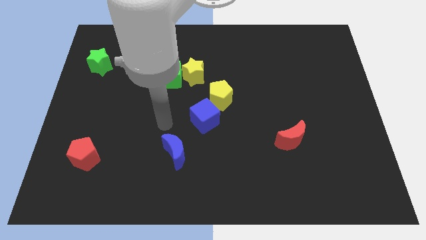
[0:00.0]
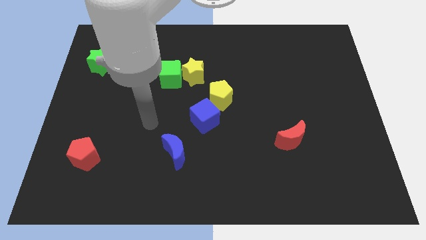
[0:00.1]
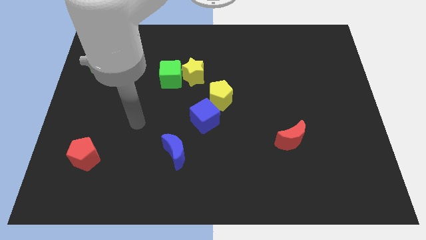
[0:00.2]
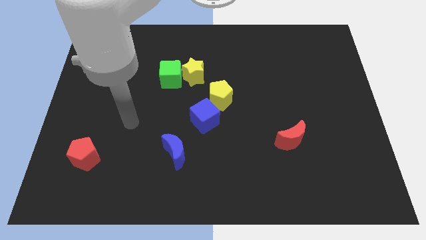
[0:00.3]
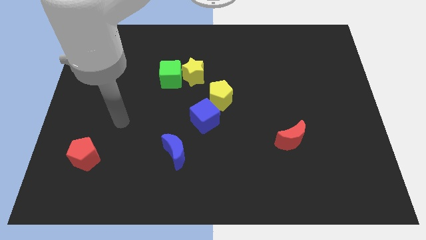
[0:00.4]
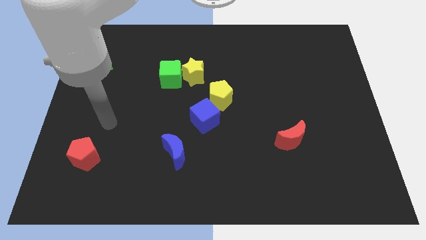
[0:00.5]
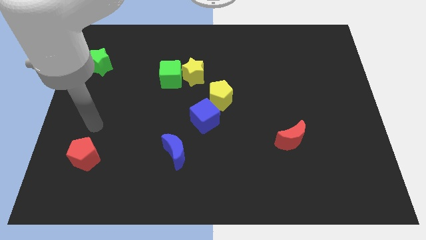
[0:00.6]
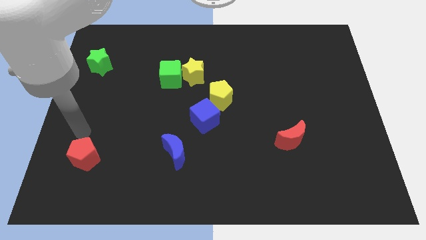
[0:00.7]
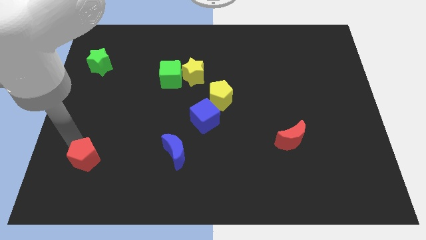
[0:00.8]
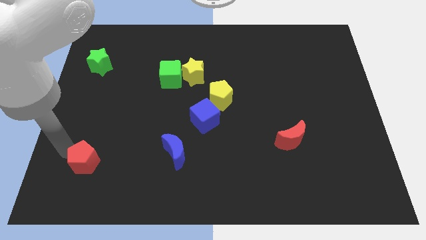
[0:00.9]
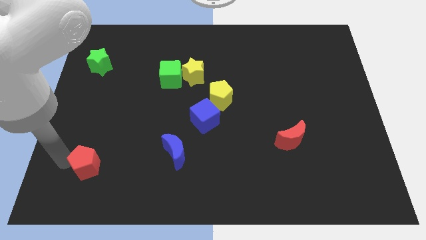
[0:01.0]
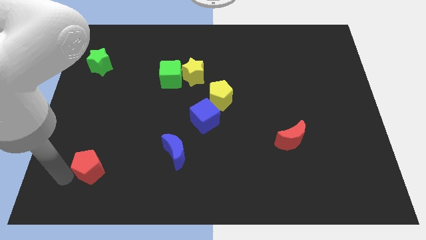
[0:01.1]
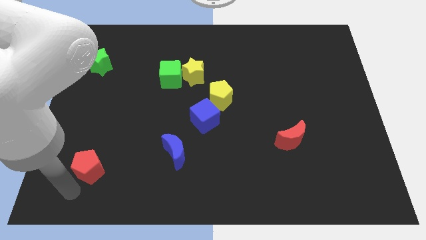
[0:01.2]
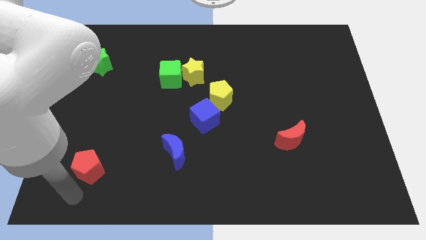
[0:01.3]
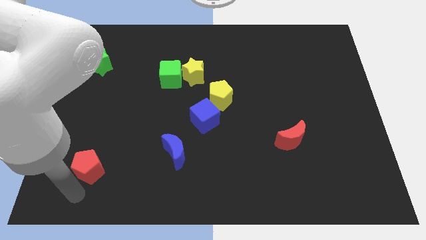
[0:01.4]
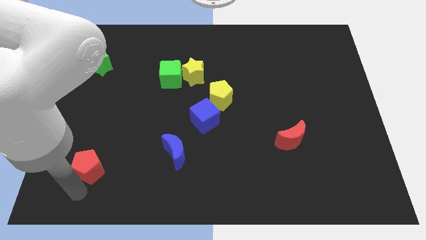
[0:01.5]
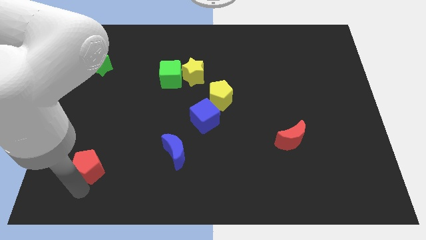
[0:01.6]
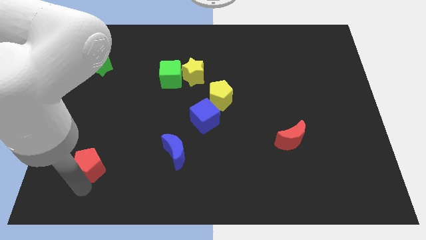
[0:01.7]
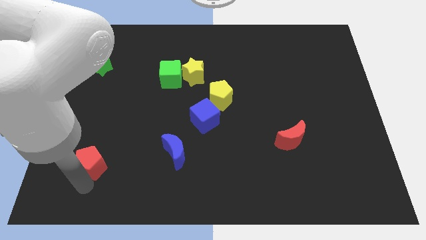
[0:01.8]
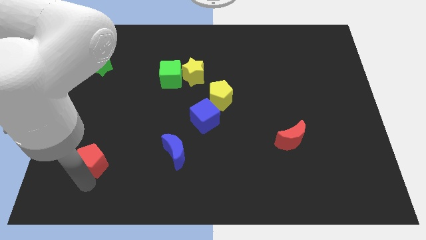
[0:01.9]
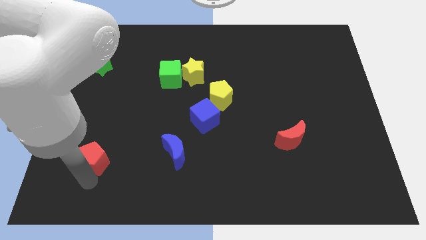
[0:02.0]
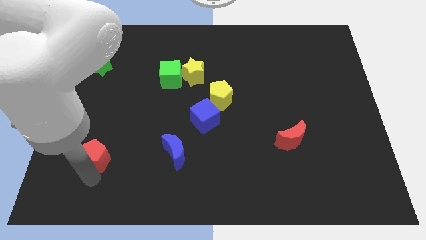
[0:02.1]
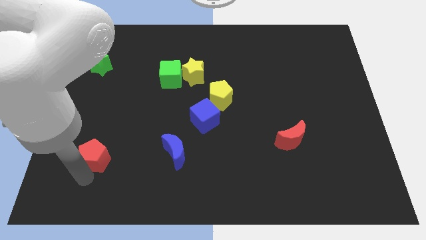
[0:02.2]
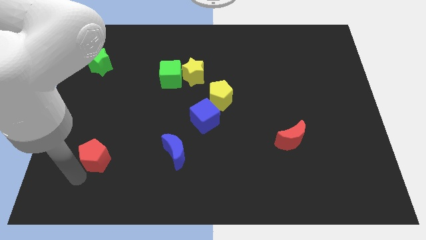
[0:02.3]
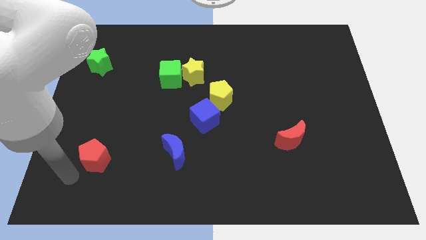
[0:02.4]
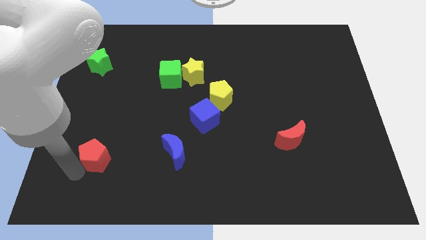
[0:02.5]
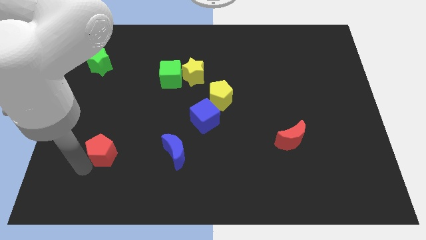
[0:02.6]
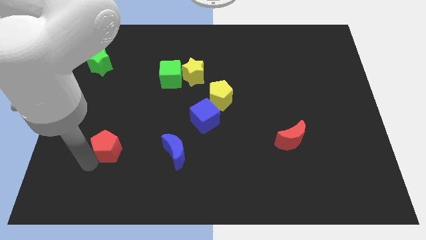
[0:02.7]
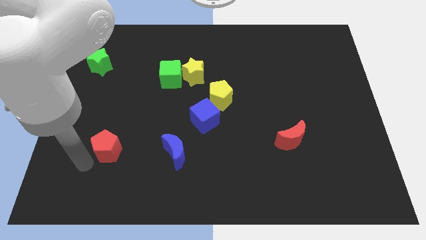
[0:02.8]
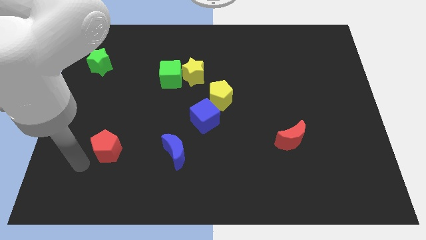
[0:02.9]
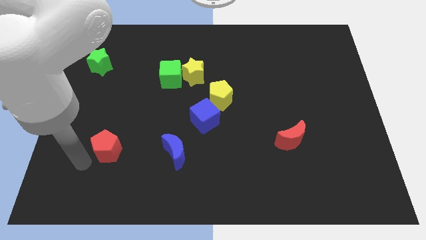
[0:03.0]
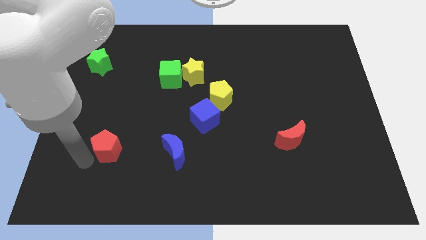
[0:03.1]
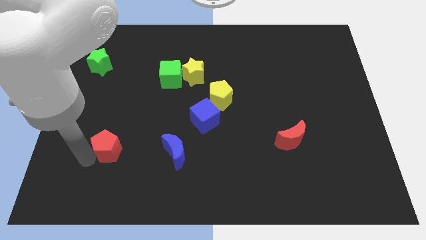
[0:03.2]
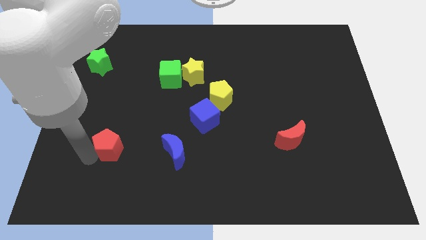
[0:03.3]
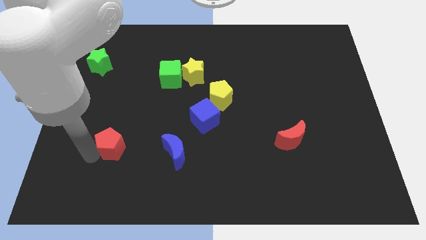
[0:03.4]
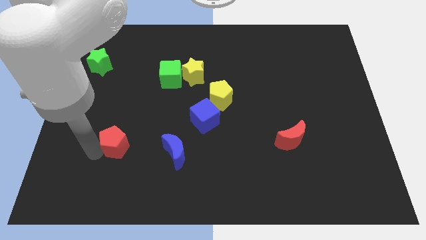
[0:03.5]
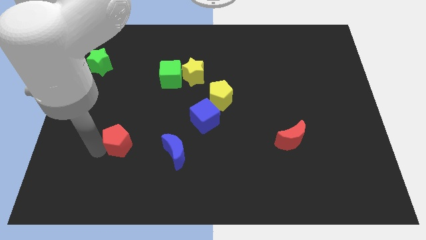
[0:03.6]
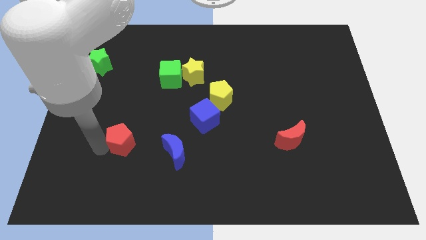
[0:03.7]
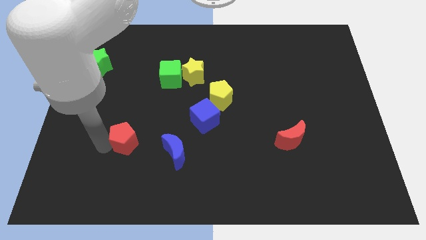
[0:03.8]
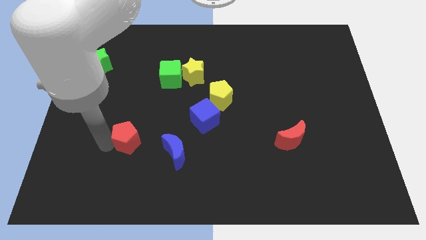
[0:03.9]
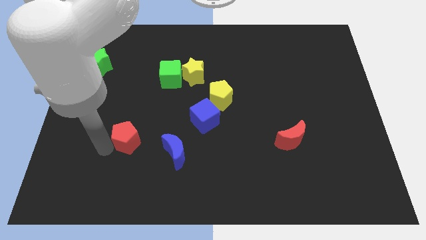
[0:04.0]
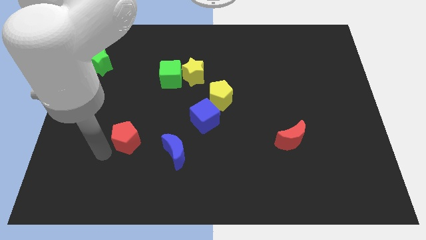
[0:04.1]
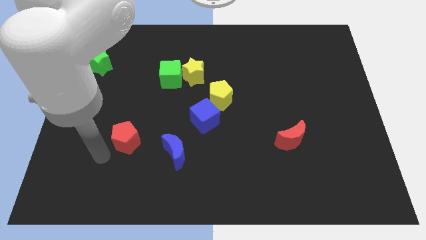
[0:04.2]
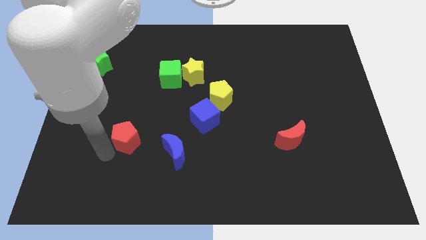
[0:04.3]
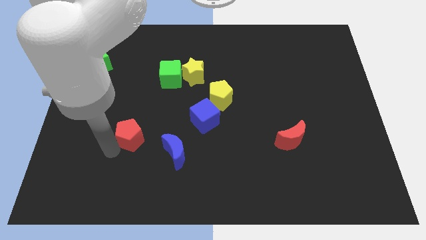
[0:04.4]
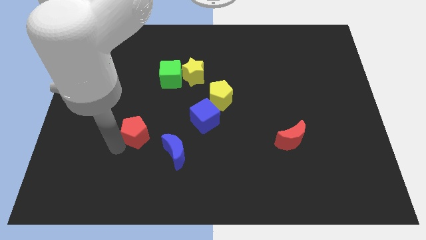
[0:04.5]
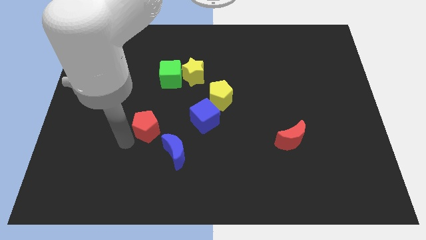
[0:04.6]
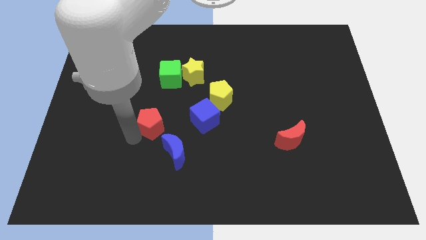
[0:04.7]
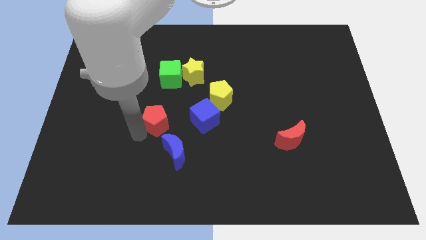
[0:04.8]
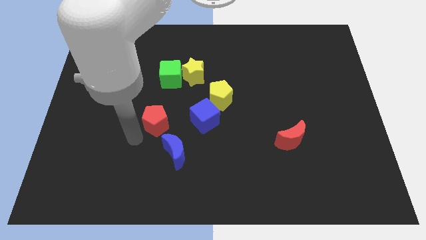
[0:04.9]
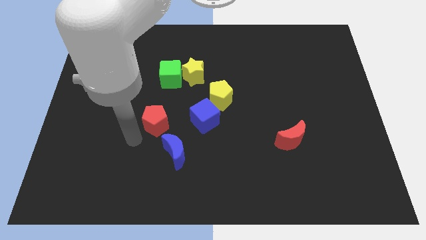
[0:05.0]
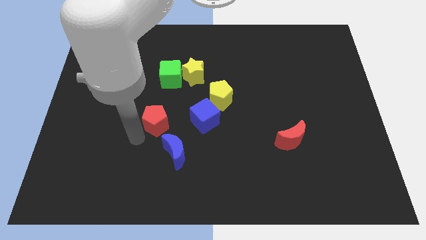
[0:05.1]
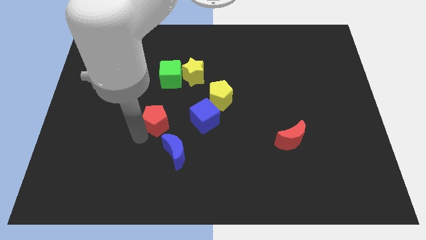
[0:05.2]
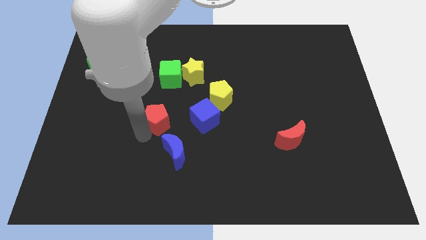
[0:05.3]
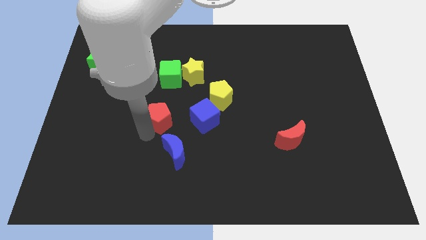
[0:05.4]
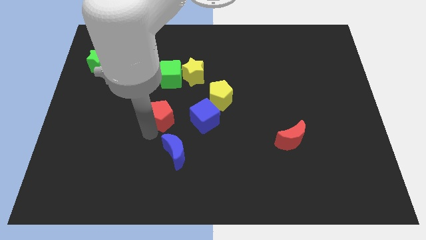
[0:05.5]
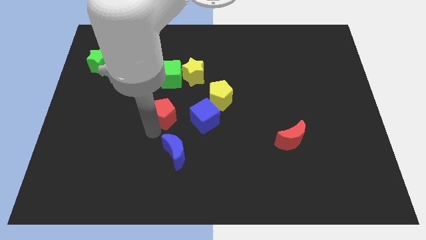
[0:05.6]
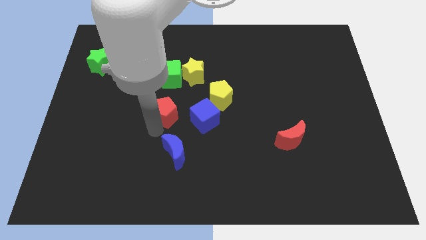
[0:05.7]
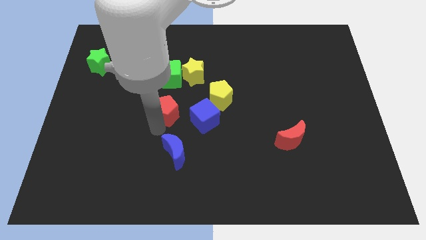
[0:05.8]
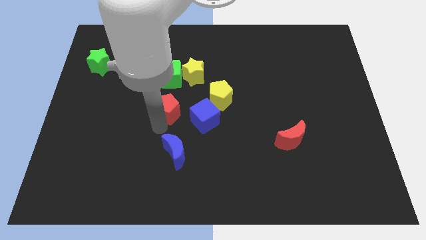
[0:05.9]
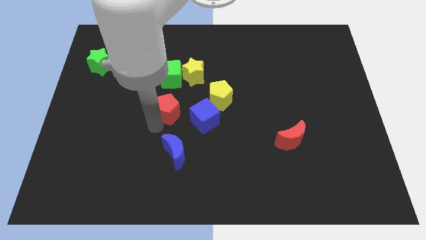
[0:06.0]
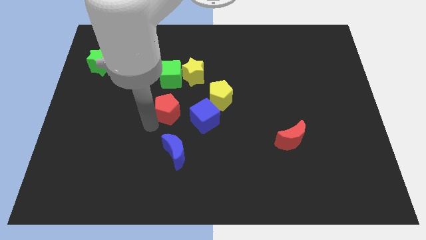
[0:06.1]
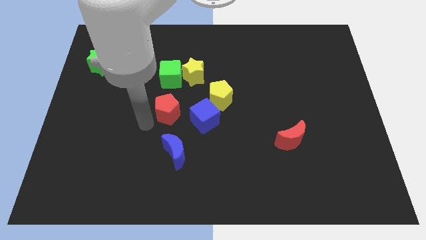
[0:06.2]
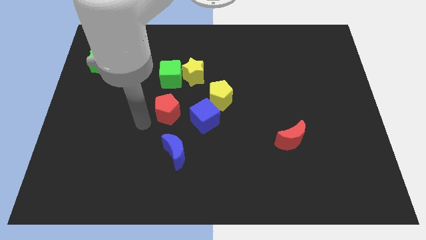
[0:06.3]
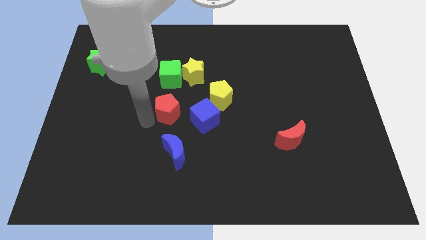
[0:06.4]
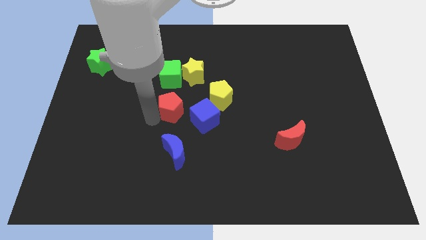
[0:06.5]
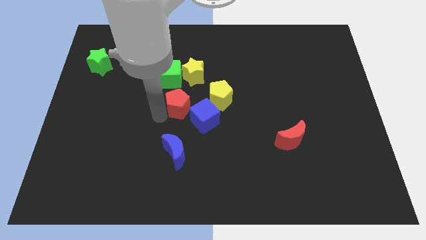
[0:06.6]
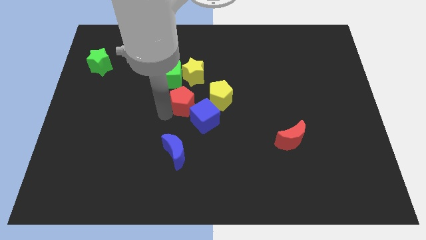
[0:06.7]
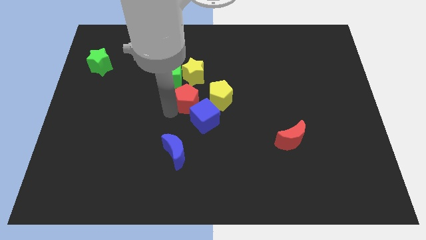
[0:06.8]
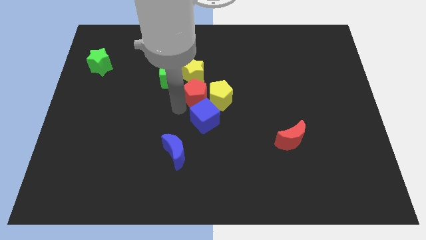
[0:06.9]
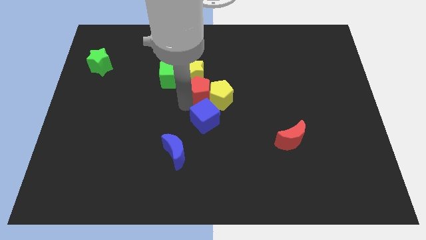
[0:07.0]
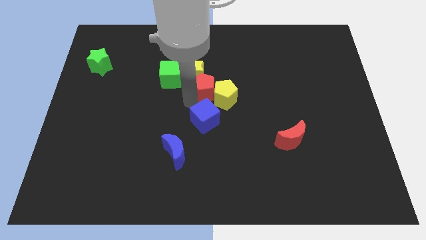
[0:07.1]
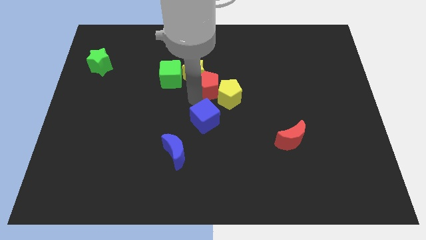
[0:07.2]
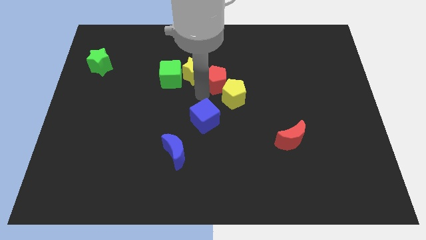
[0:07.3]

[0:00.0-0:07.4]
move the red pentagon to the top side of the yellow pentagon

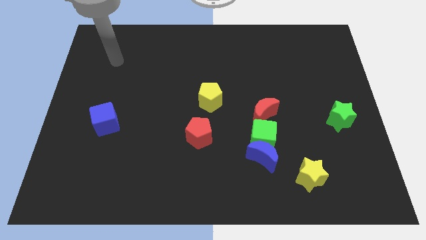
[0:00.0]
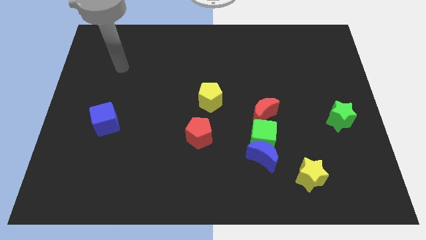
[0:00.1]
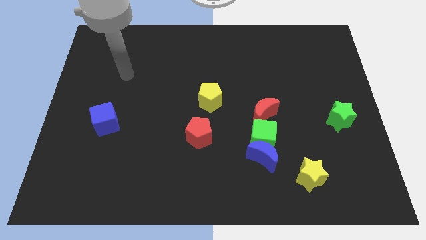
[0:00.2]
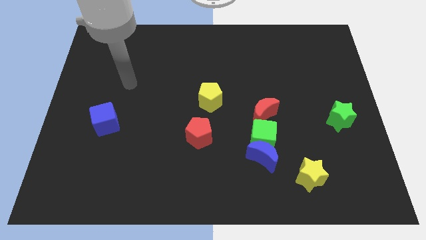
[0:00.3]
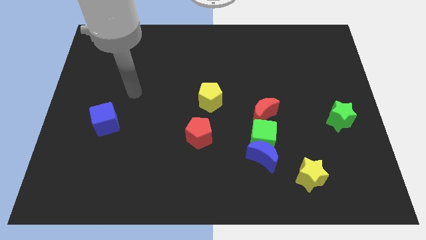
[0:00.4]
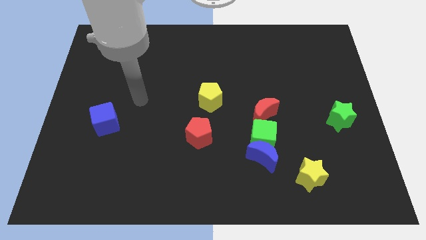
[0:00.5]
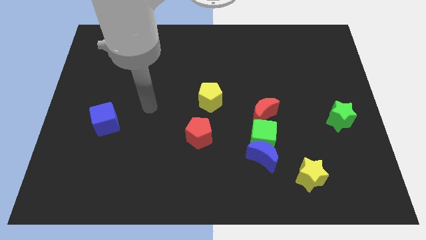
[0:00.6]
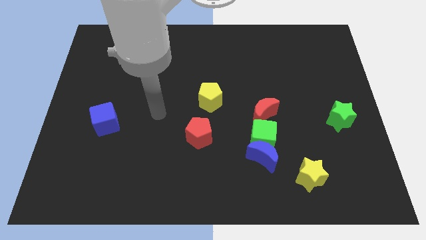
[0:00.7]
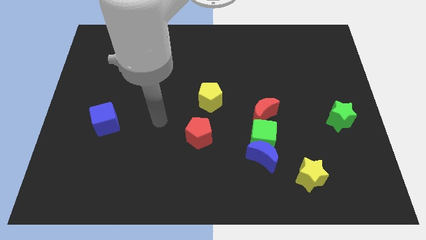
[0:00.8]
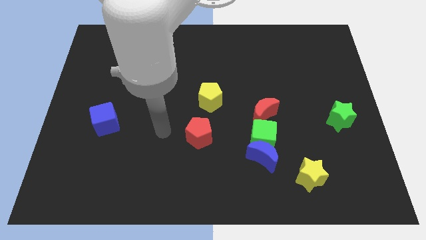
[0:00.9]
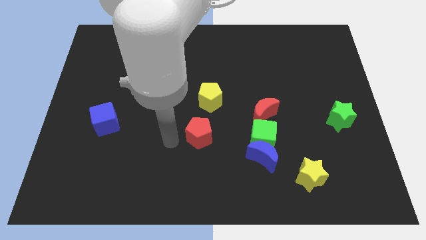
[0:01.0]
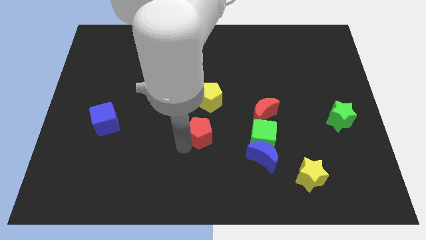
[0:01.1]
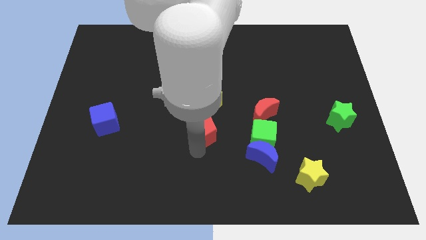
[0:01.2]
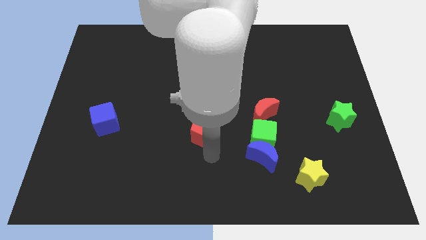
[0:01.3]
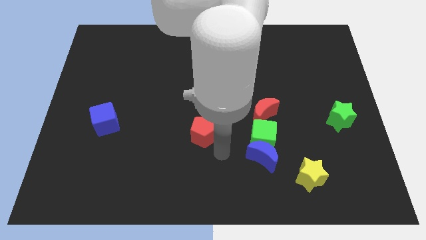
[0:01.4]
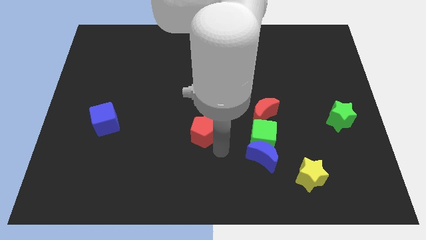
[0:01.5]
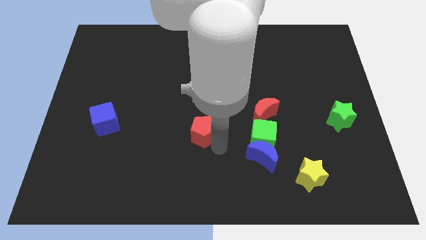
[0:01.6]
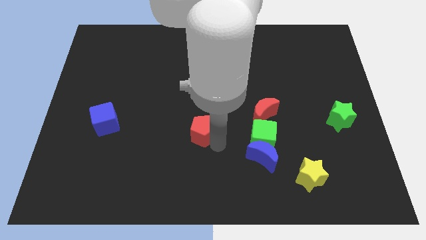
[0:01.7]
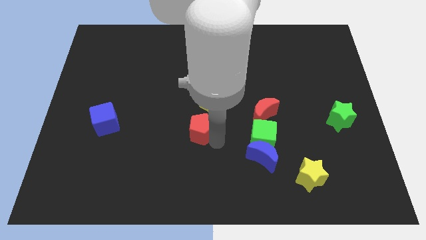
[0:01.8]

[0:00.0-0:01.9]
slide the red pentagon to the bottom left side of the yellow pentagon
